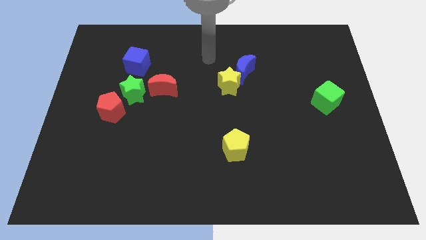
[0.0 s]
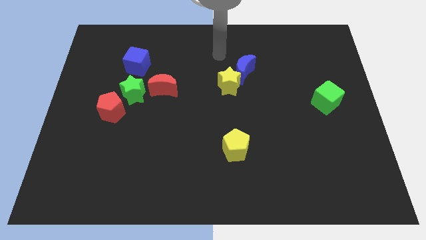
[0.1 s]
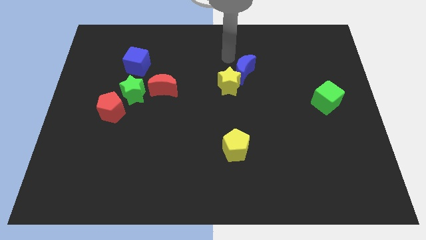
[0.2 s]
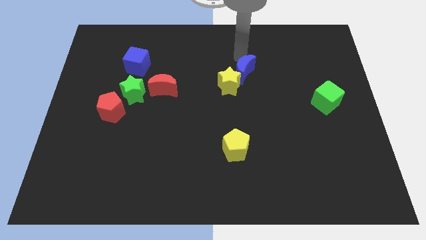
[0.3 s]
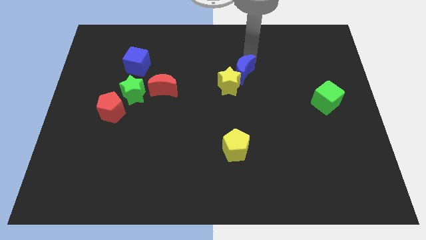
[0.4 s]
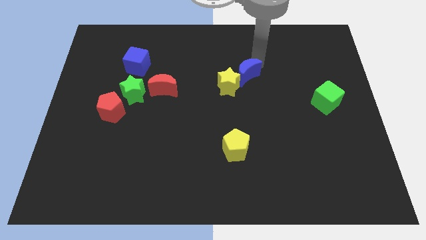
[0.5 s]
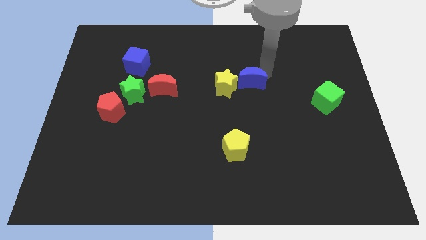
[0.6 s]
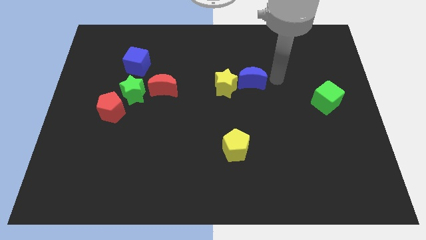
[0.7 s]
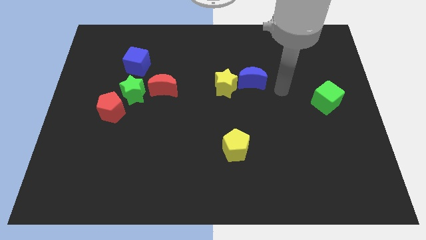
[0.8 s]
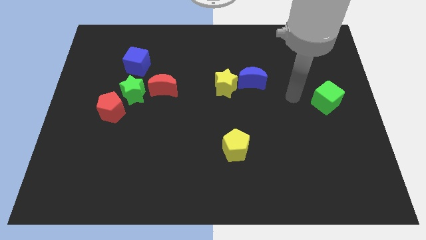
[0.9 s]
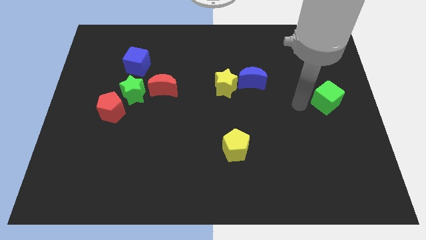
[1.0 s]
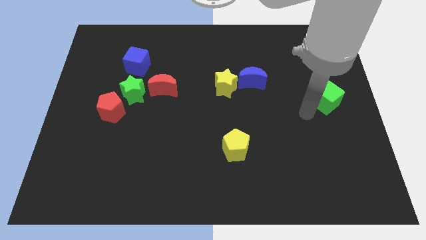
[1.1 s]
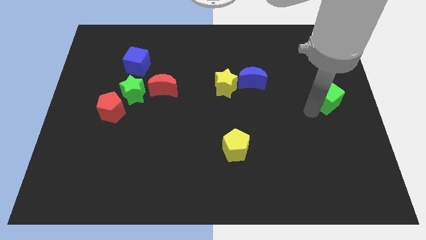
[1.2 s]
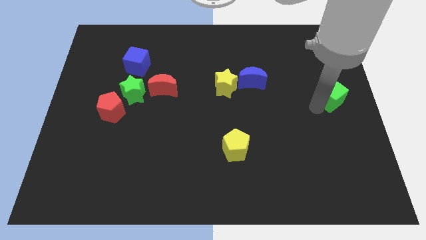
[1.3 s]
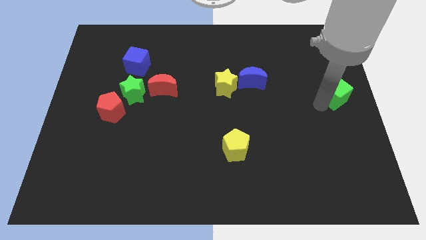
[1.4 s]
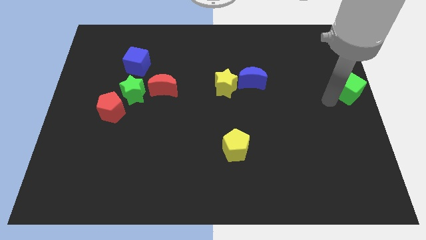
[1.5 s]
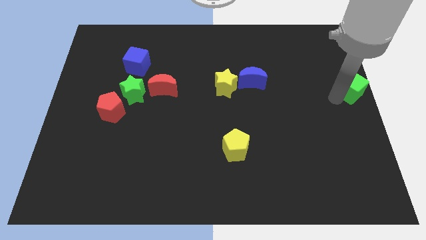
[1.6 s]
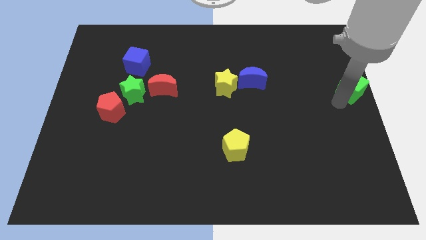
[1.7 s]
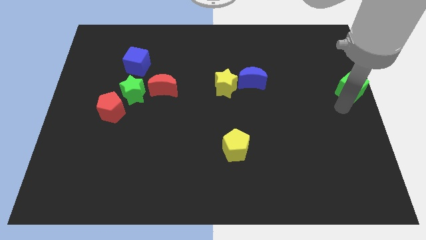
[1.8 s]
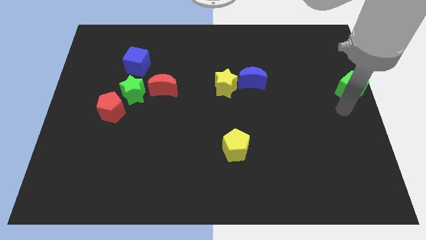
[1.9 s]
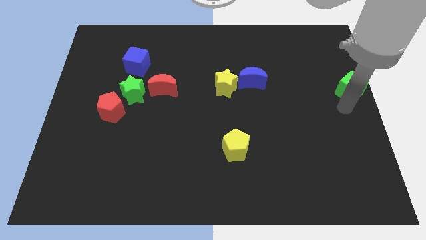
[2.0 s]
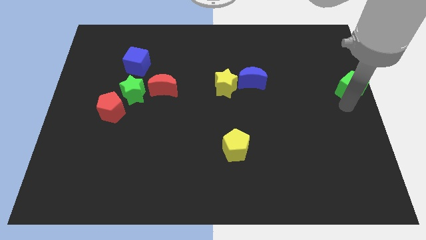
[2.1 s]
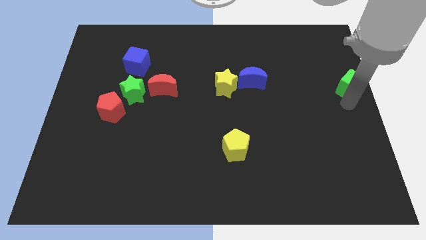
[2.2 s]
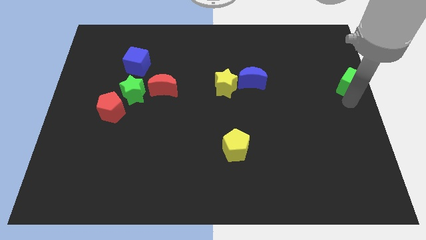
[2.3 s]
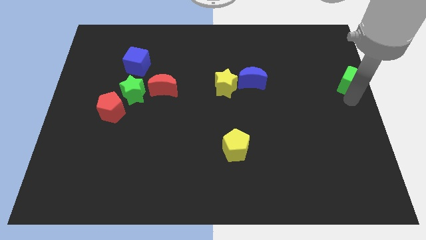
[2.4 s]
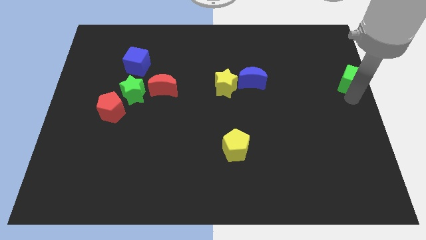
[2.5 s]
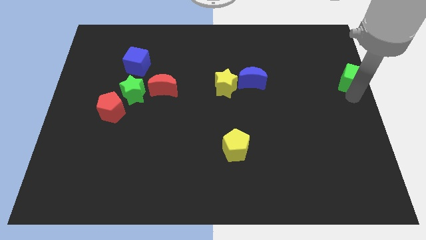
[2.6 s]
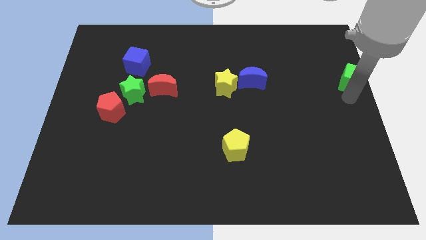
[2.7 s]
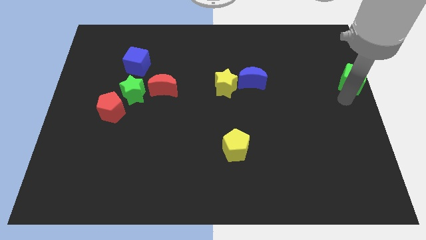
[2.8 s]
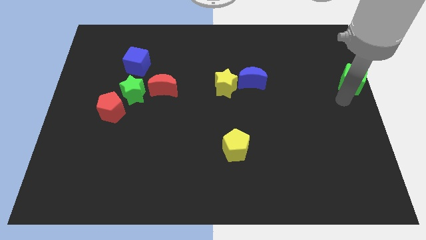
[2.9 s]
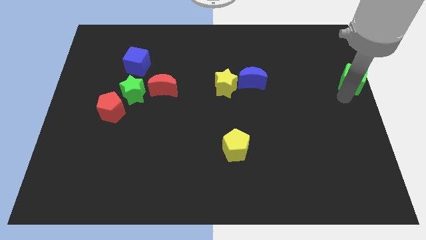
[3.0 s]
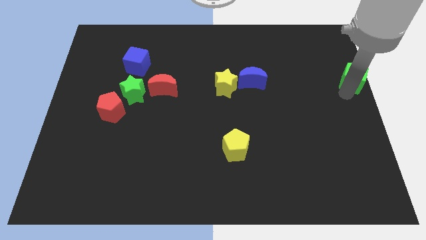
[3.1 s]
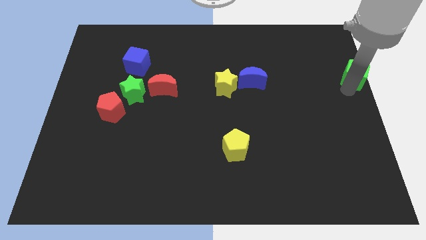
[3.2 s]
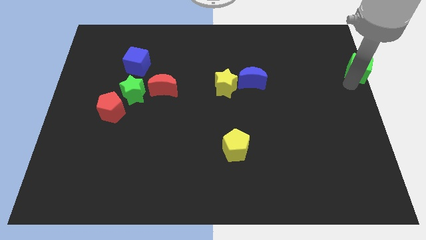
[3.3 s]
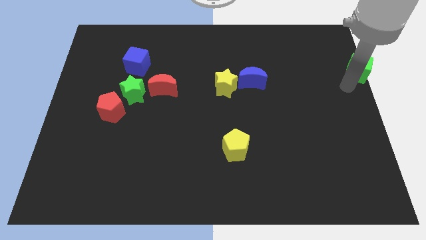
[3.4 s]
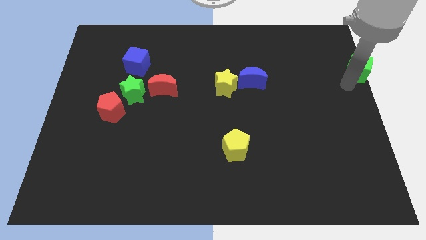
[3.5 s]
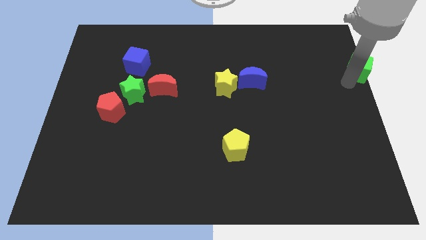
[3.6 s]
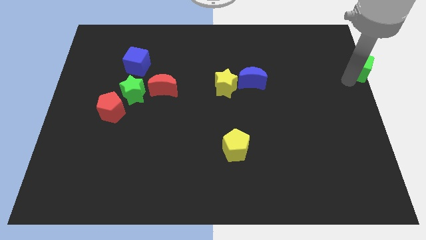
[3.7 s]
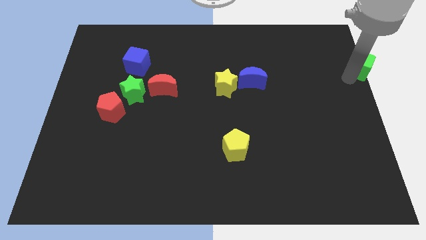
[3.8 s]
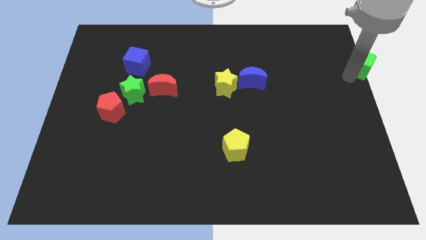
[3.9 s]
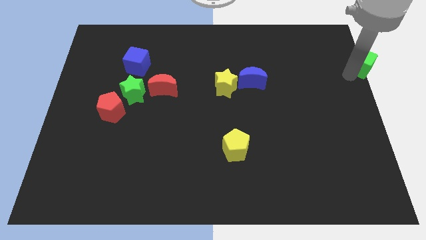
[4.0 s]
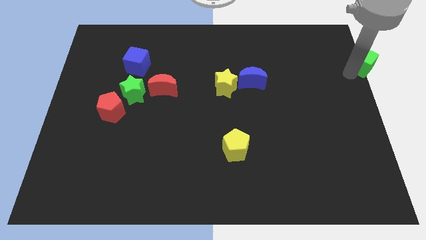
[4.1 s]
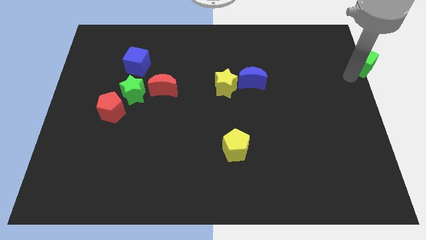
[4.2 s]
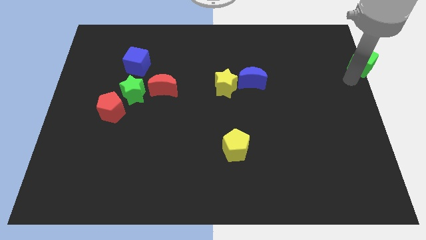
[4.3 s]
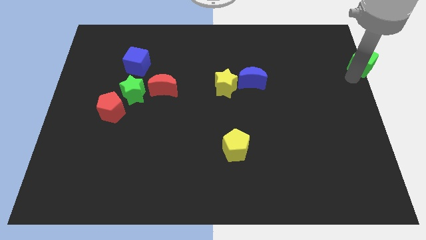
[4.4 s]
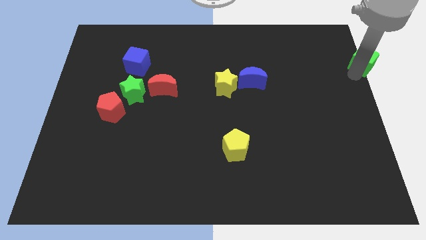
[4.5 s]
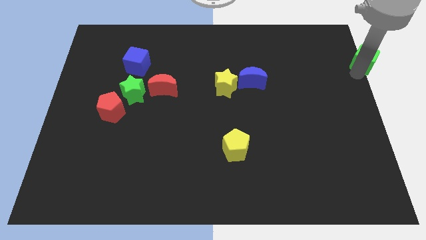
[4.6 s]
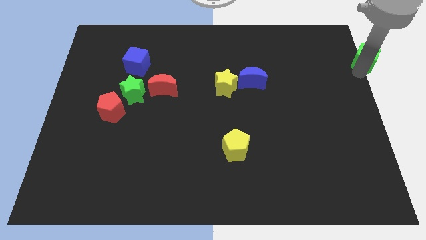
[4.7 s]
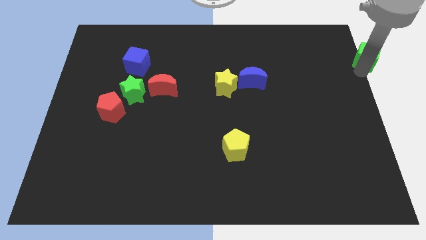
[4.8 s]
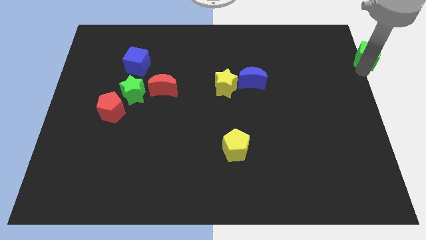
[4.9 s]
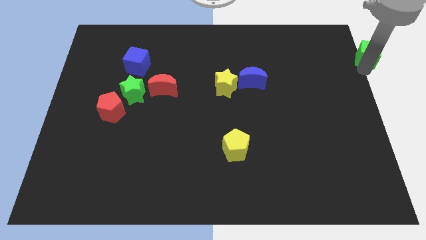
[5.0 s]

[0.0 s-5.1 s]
move the green cube to the top right

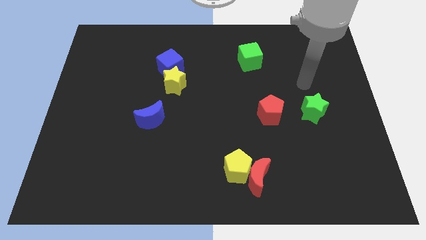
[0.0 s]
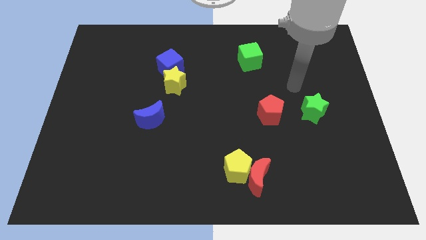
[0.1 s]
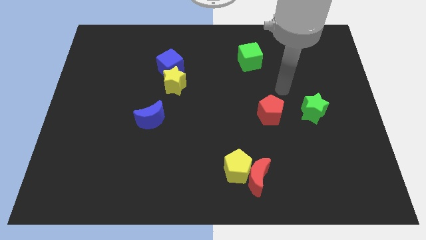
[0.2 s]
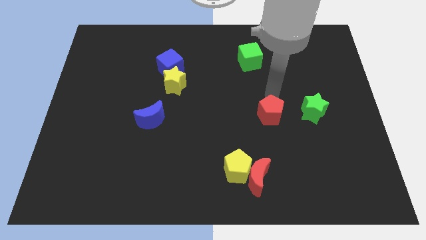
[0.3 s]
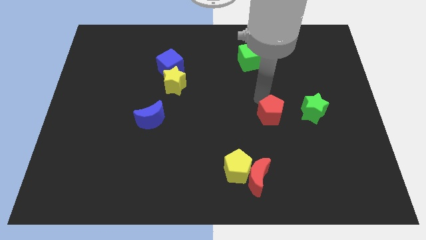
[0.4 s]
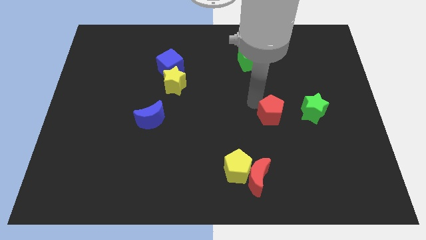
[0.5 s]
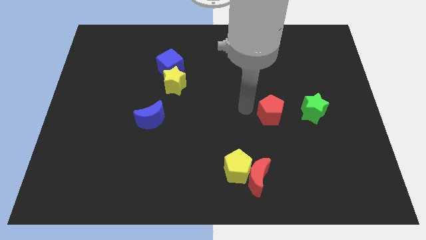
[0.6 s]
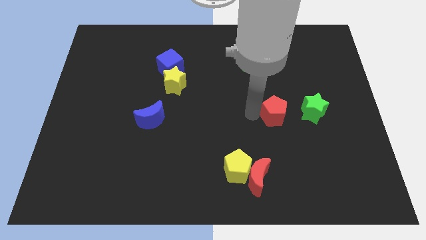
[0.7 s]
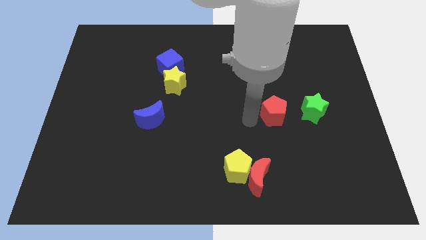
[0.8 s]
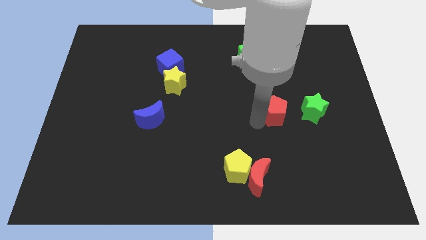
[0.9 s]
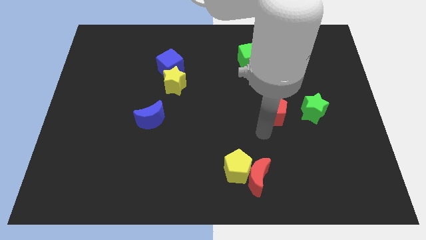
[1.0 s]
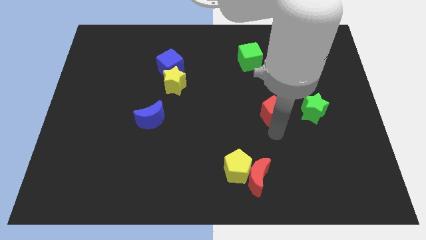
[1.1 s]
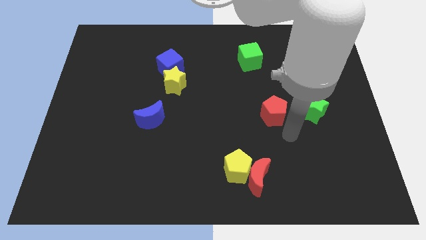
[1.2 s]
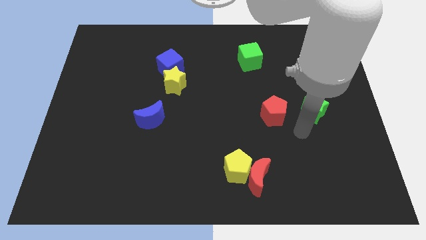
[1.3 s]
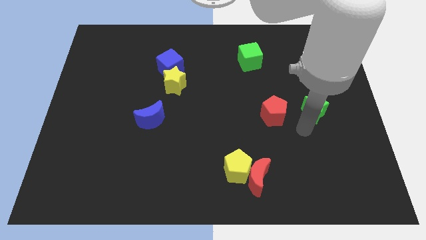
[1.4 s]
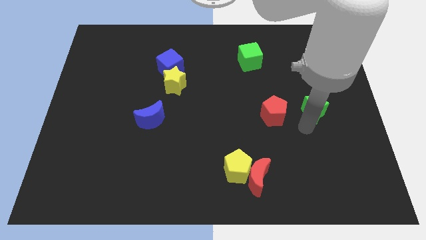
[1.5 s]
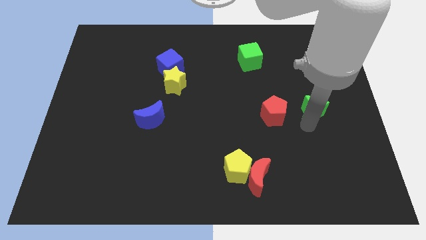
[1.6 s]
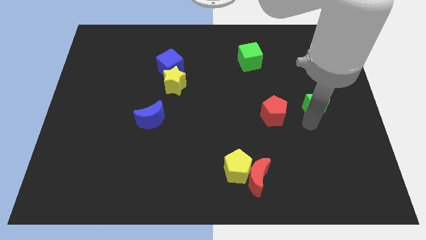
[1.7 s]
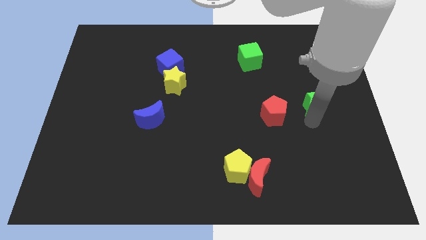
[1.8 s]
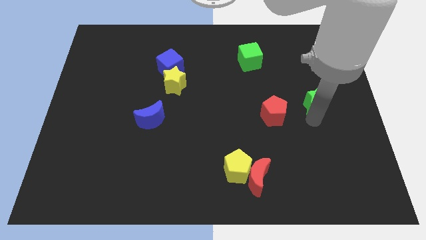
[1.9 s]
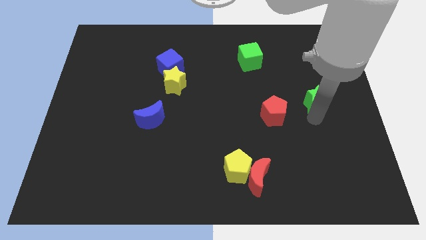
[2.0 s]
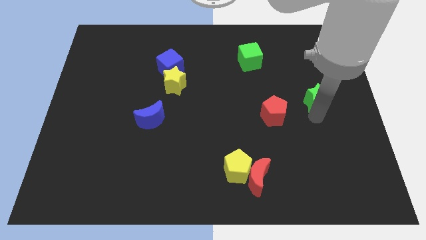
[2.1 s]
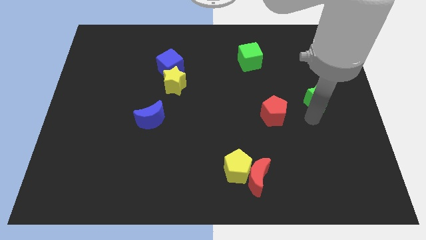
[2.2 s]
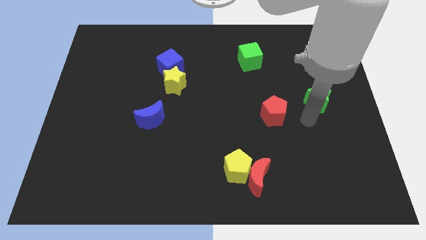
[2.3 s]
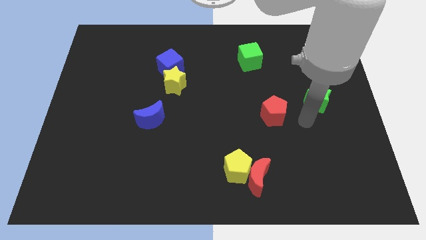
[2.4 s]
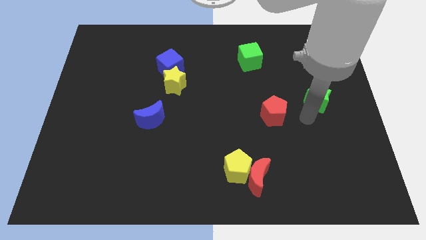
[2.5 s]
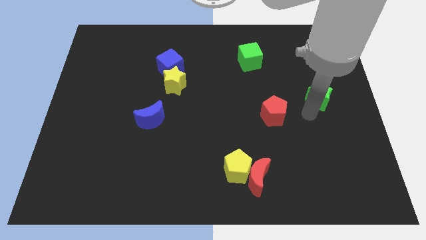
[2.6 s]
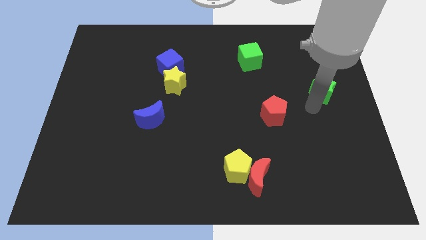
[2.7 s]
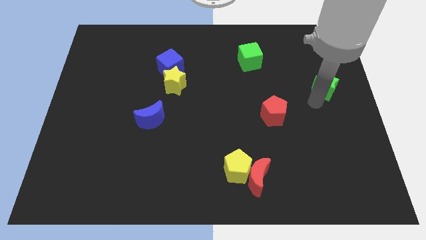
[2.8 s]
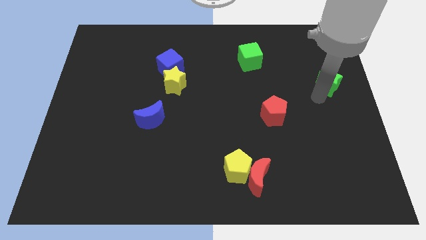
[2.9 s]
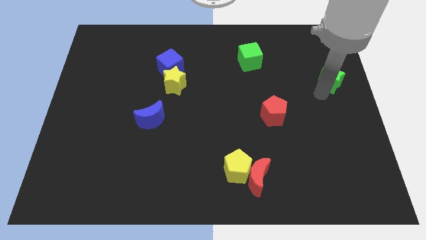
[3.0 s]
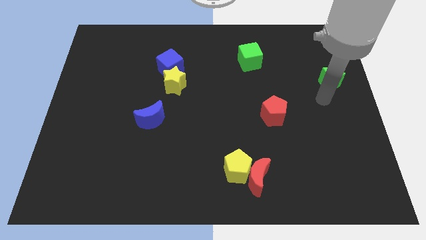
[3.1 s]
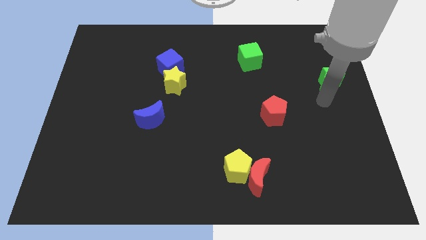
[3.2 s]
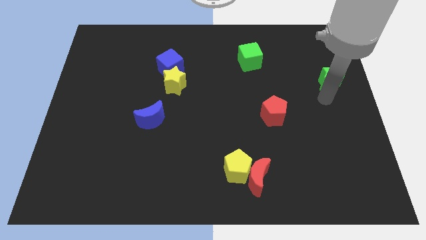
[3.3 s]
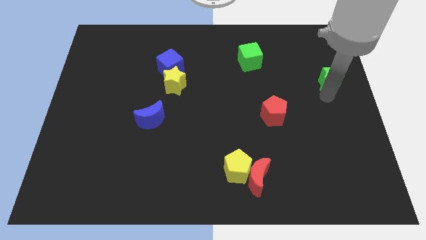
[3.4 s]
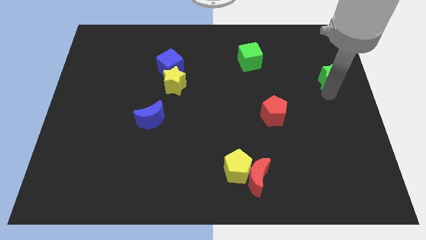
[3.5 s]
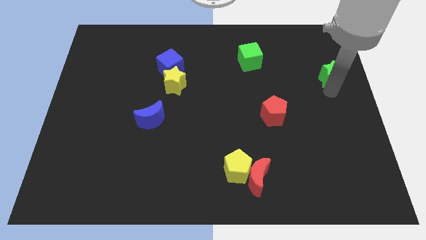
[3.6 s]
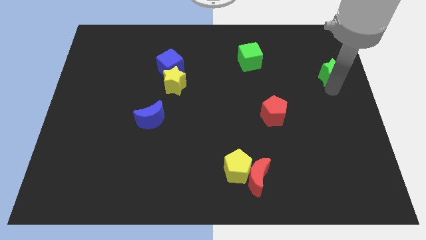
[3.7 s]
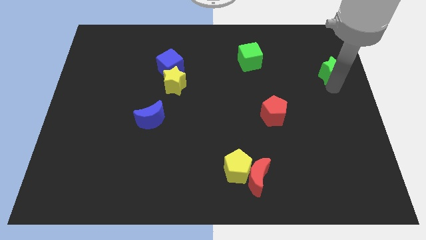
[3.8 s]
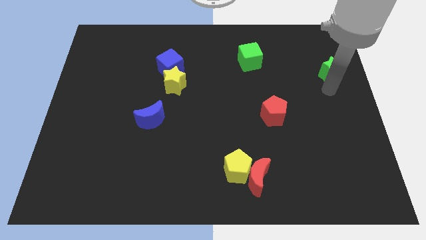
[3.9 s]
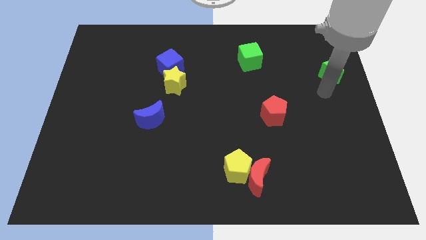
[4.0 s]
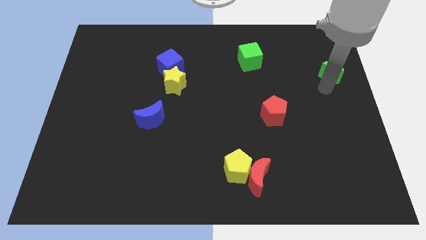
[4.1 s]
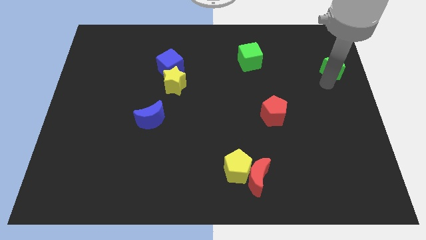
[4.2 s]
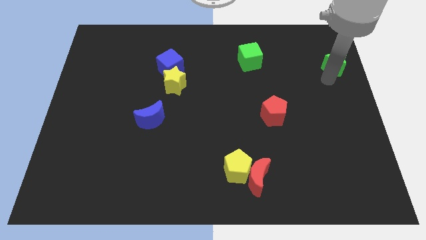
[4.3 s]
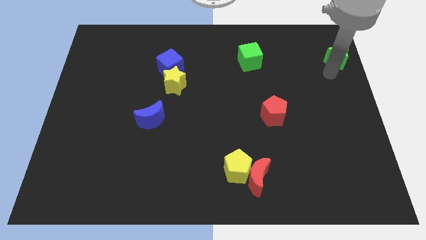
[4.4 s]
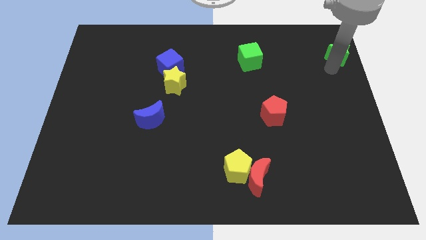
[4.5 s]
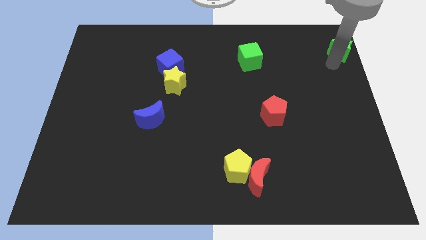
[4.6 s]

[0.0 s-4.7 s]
slide the green star to the upper right corner
